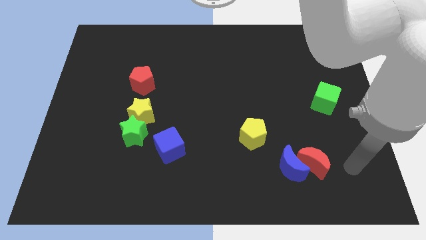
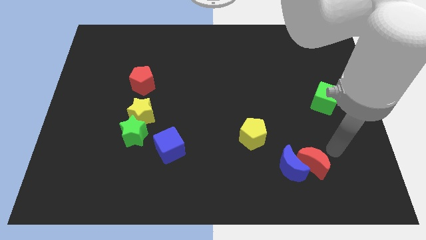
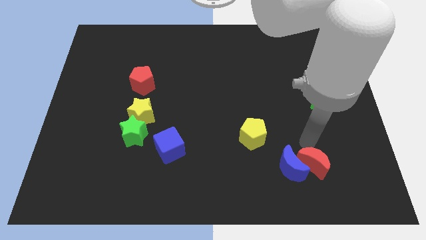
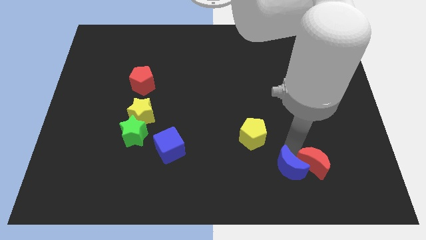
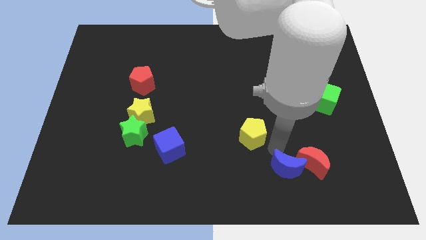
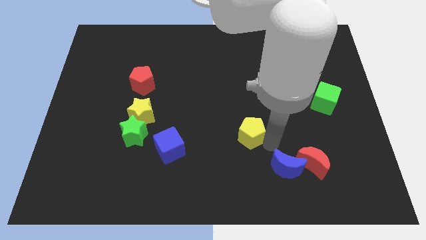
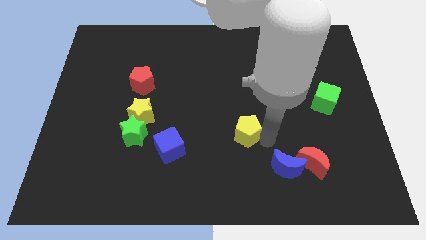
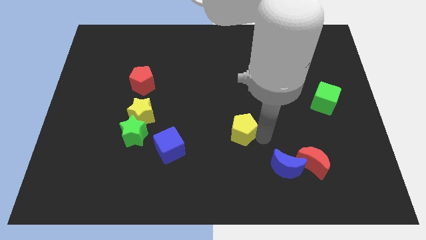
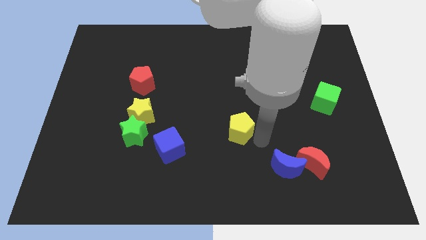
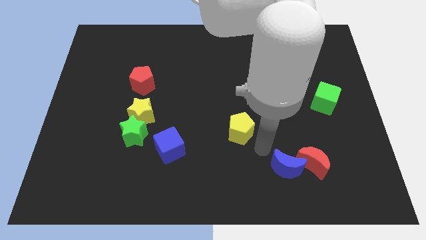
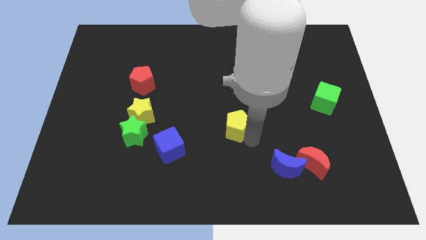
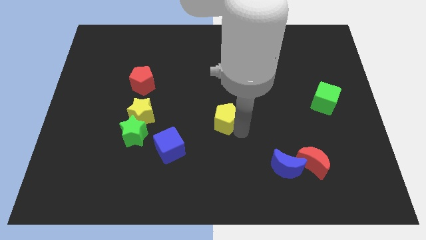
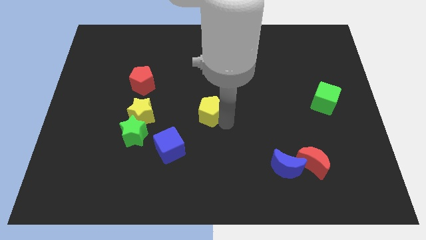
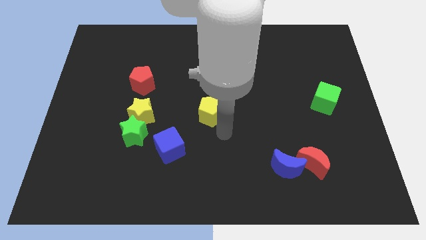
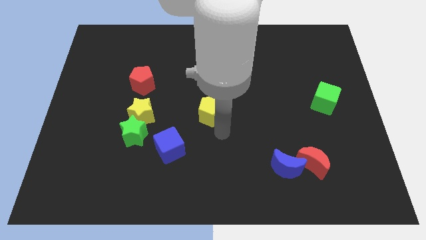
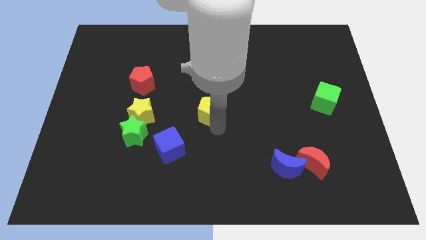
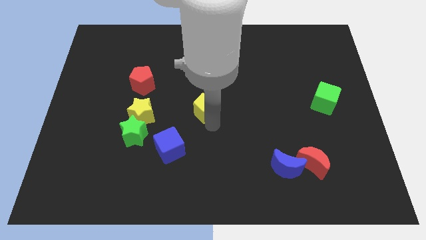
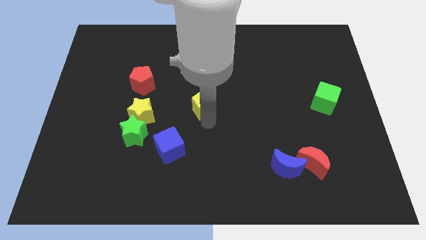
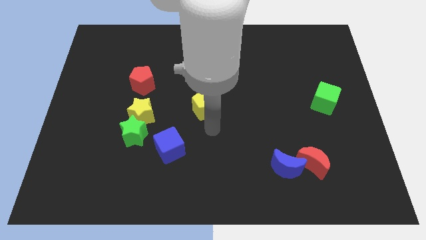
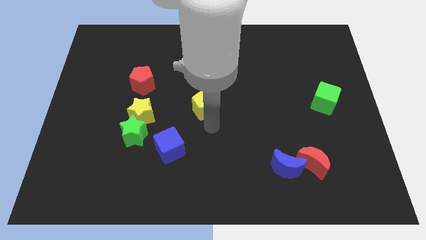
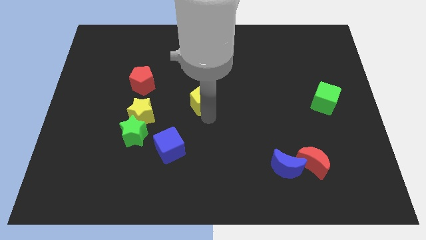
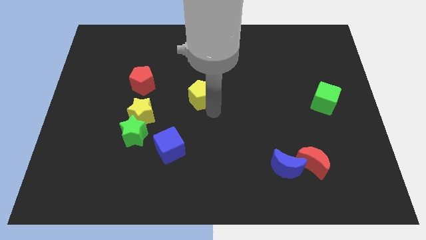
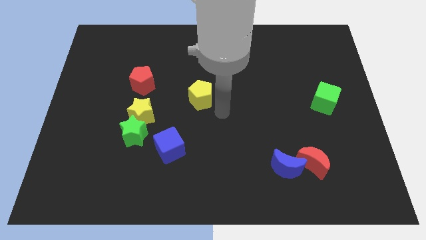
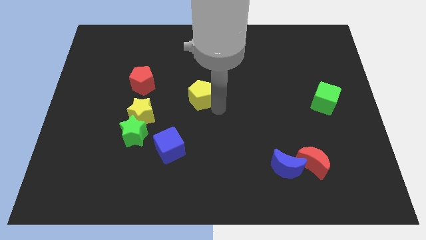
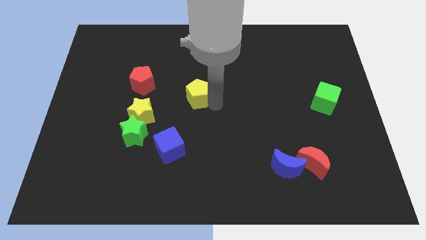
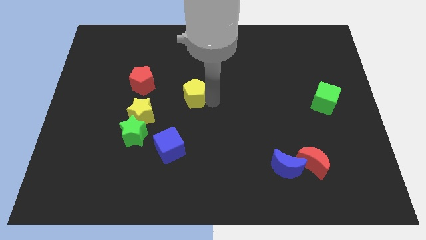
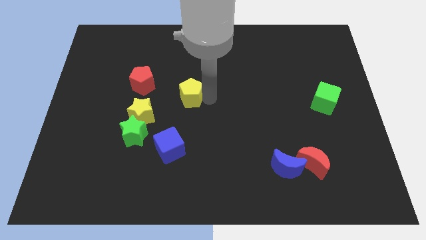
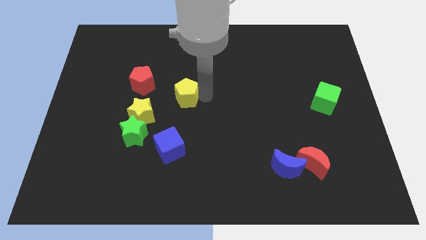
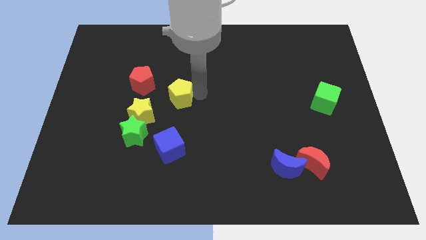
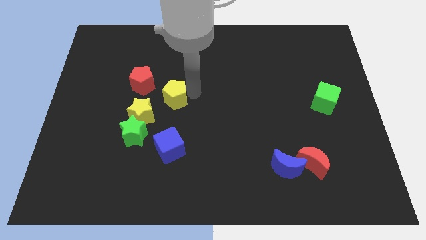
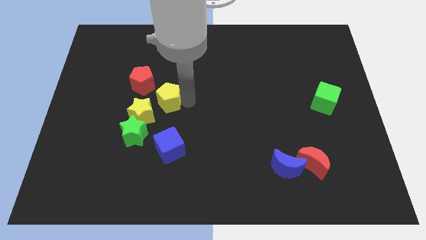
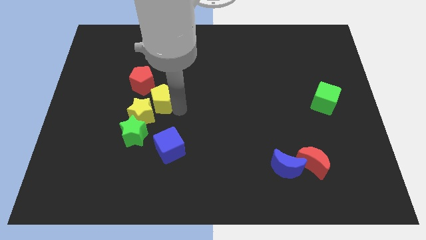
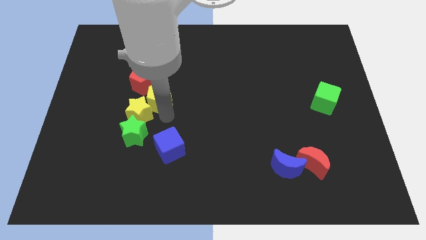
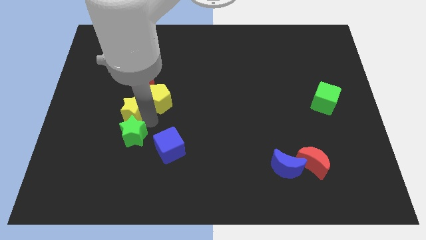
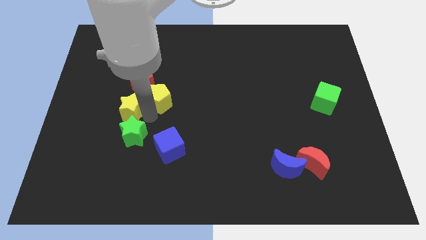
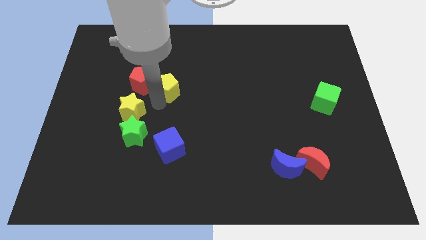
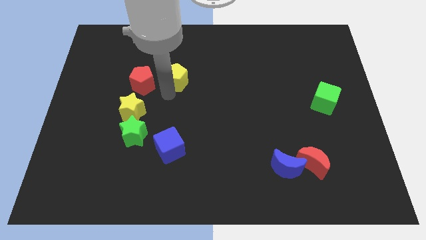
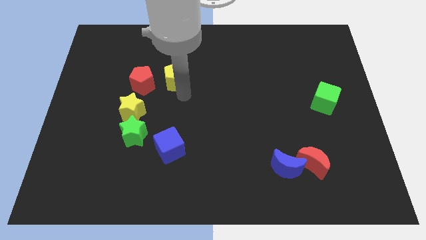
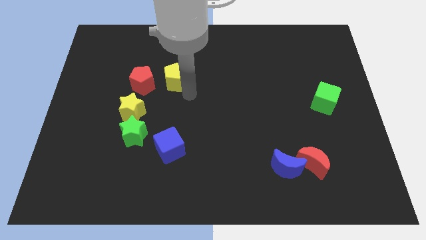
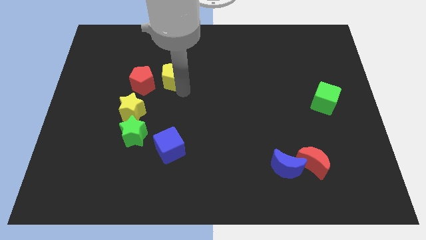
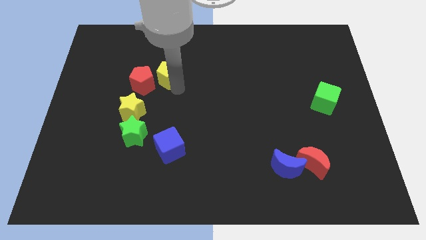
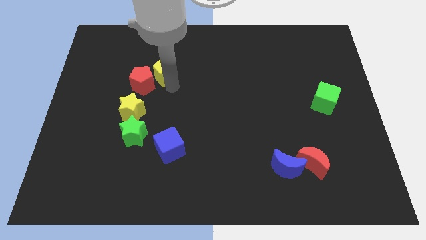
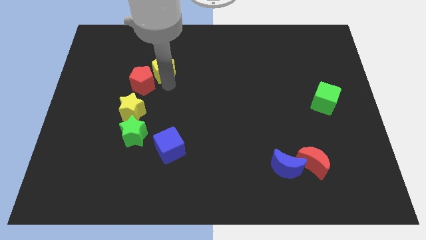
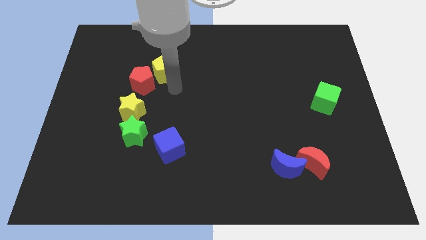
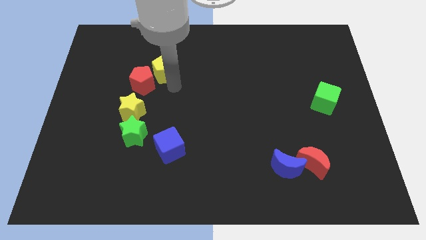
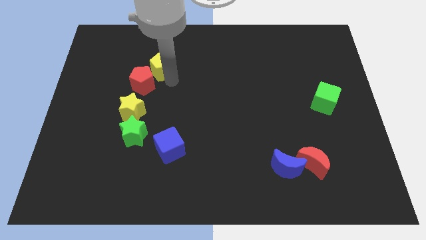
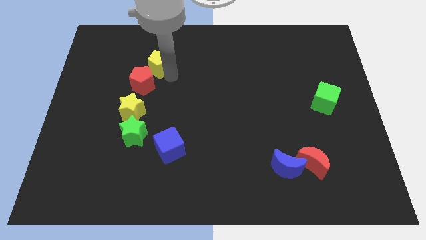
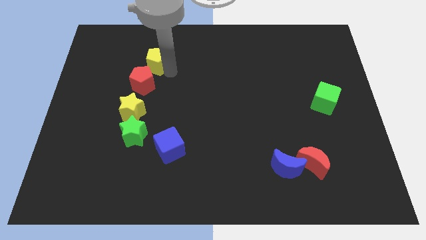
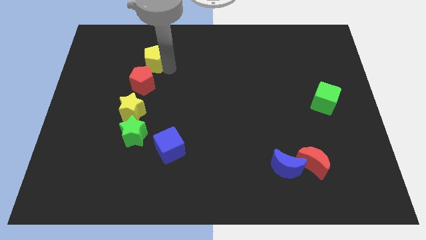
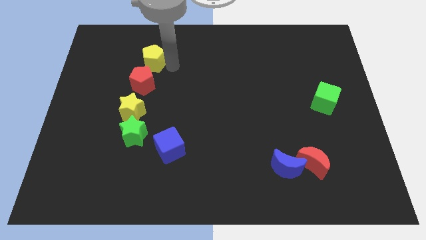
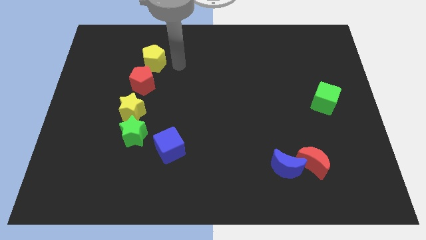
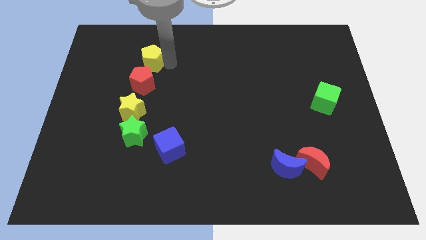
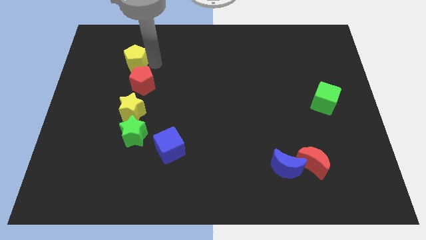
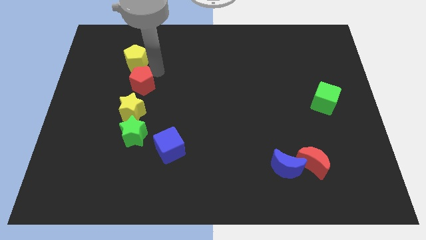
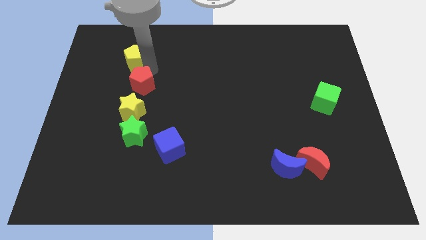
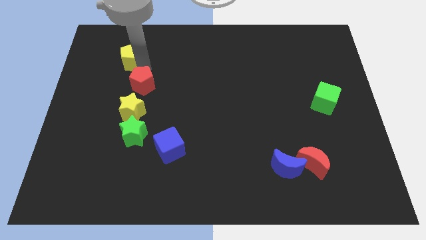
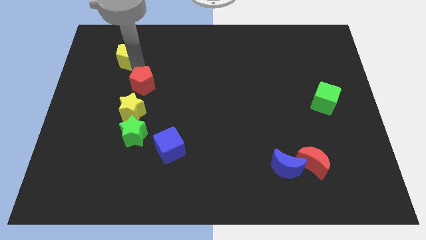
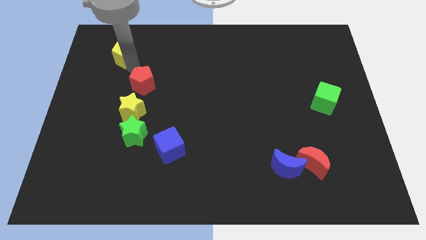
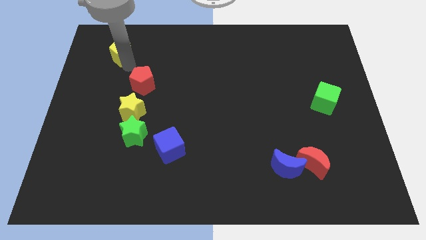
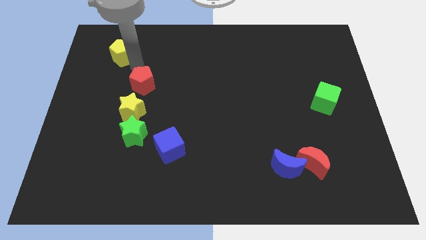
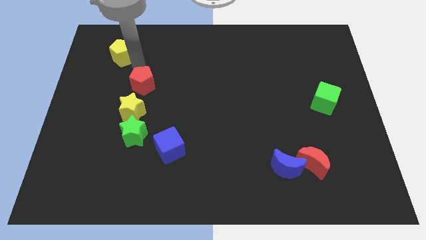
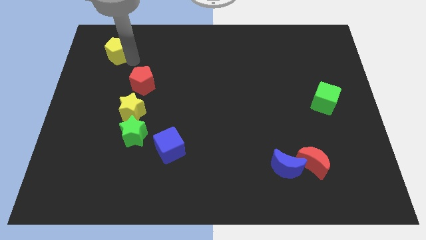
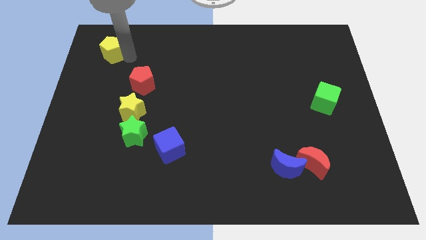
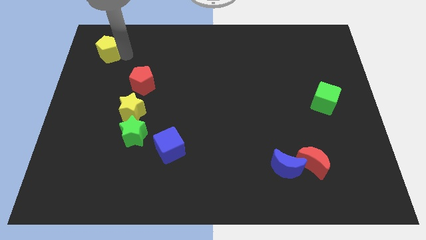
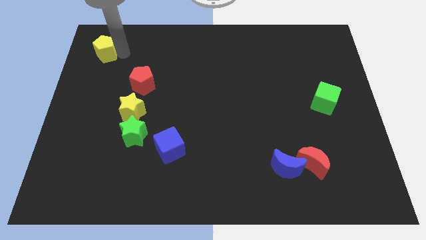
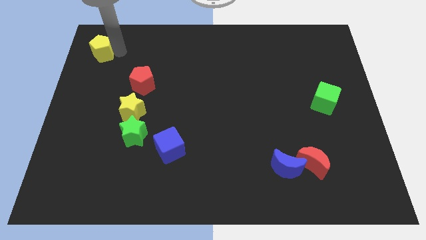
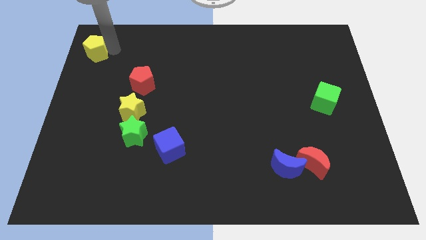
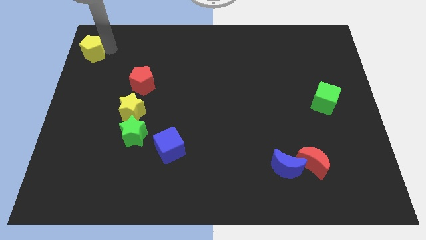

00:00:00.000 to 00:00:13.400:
move the yellow pentagon to the top left corner
